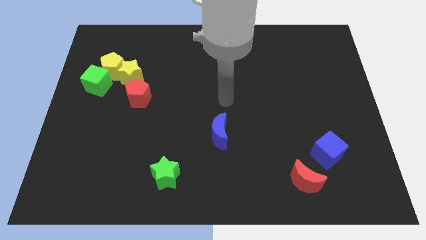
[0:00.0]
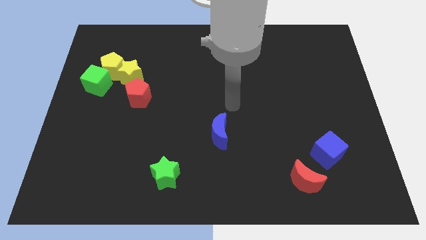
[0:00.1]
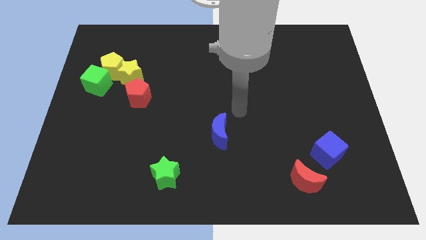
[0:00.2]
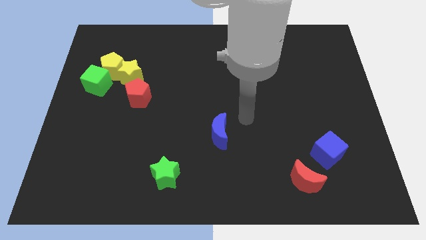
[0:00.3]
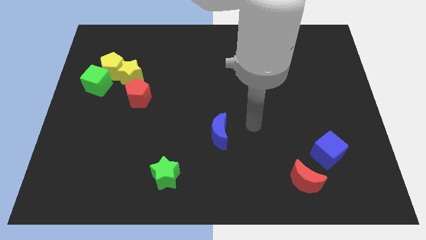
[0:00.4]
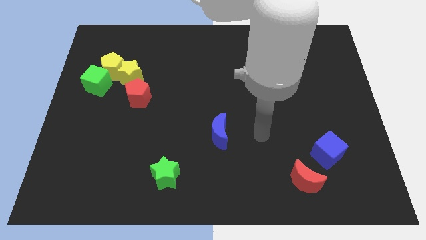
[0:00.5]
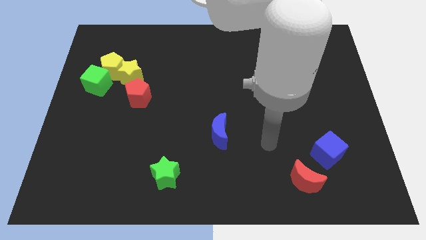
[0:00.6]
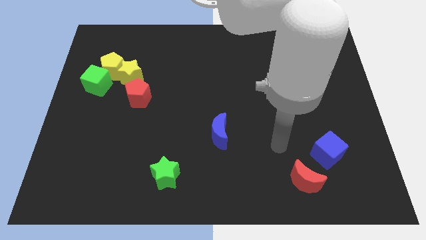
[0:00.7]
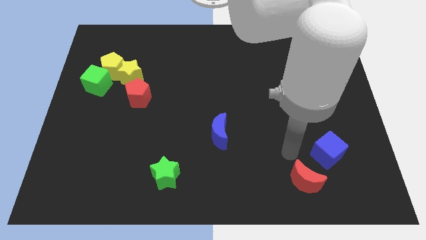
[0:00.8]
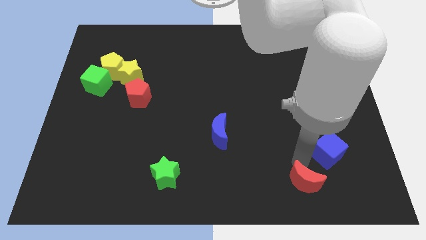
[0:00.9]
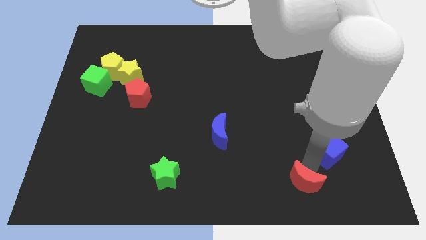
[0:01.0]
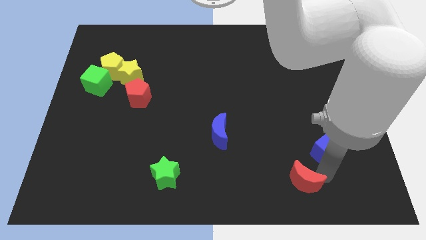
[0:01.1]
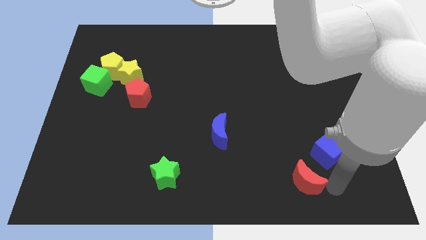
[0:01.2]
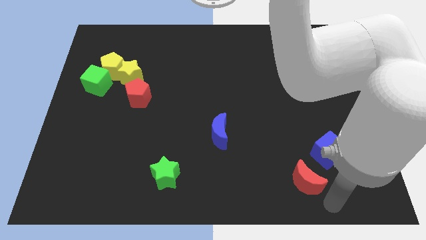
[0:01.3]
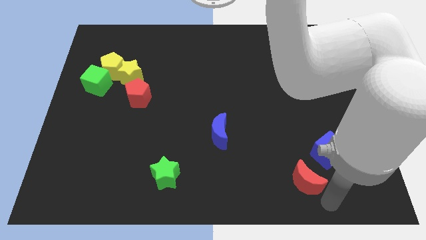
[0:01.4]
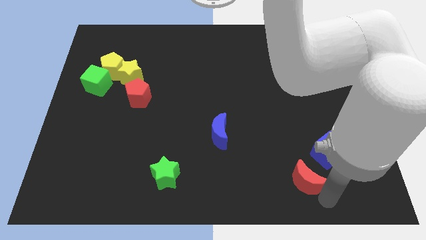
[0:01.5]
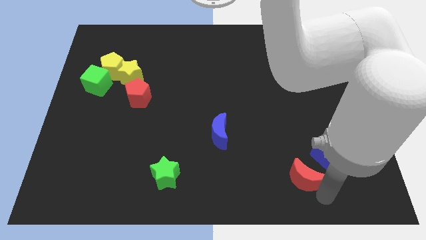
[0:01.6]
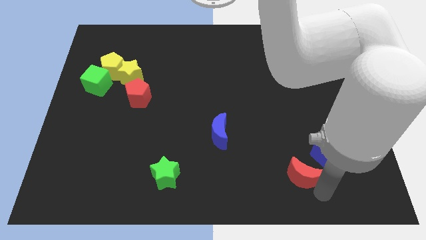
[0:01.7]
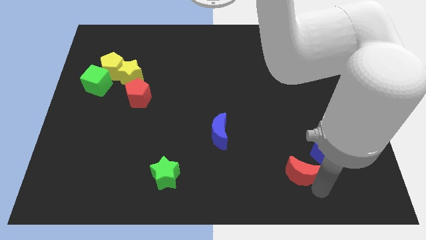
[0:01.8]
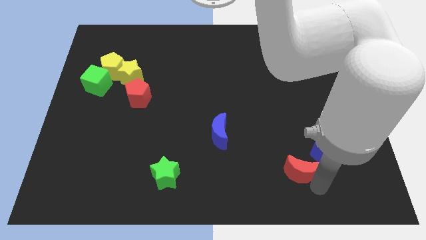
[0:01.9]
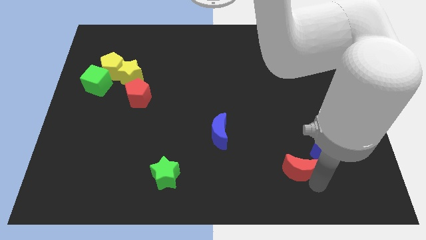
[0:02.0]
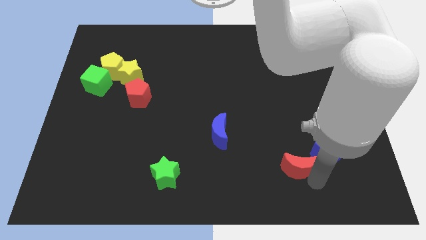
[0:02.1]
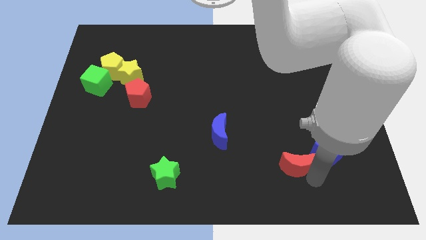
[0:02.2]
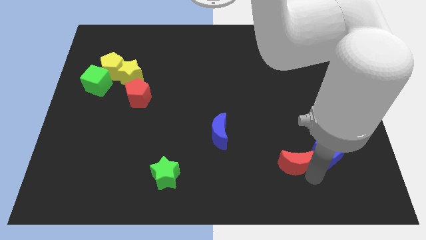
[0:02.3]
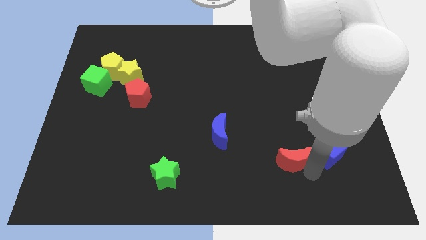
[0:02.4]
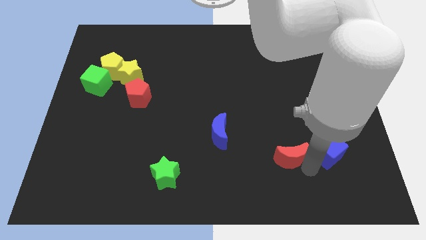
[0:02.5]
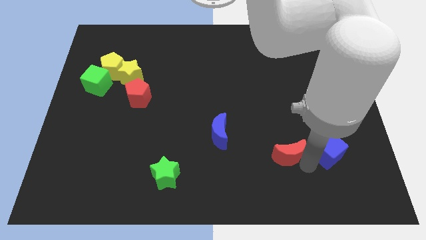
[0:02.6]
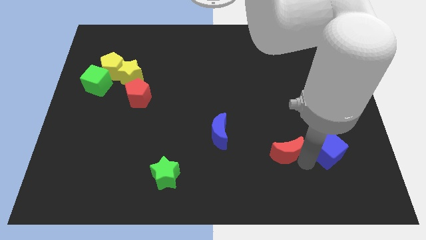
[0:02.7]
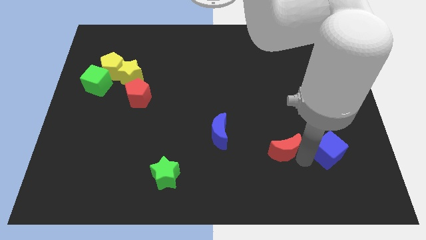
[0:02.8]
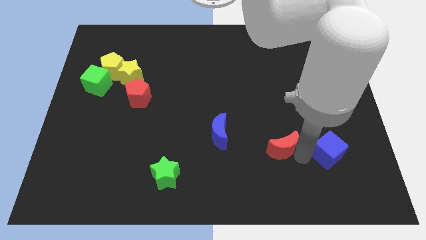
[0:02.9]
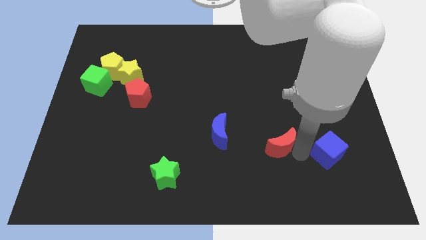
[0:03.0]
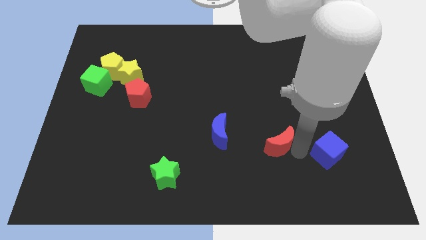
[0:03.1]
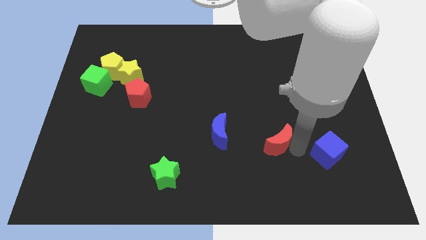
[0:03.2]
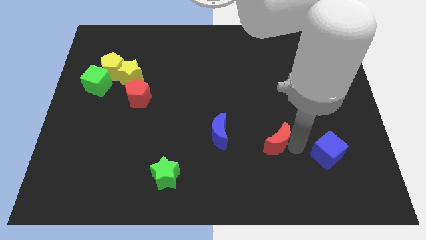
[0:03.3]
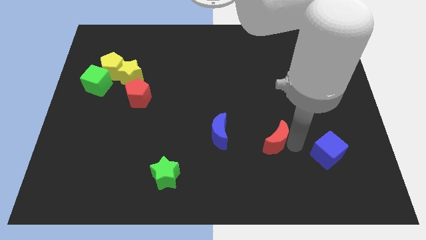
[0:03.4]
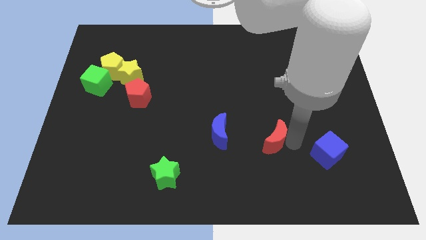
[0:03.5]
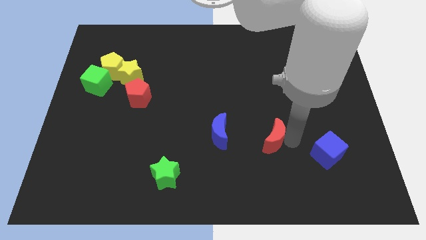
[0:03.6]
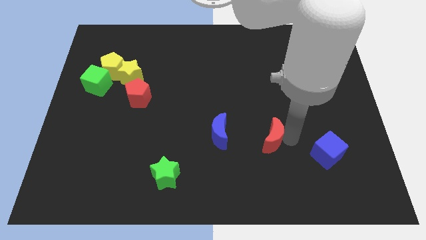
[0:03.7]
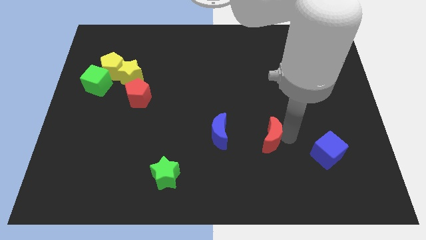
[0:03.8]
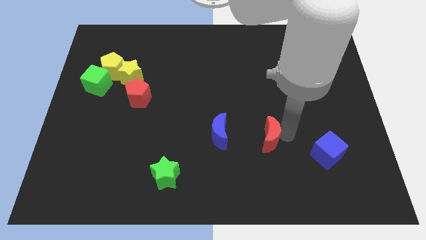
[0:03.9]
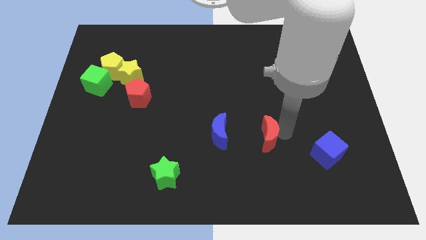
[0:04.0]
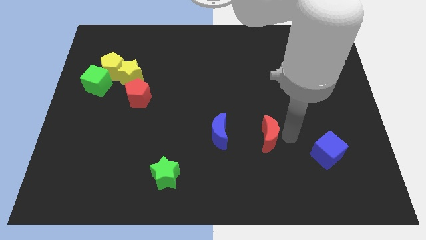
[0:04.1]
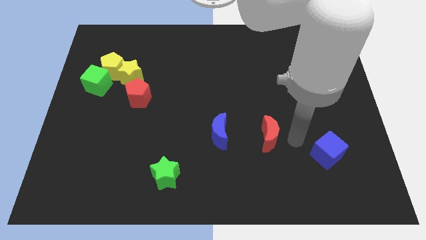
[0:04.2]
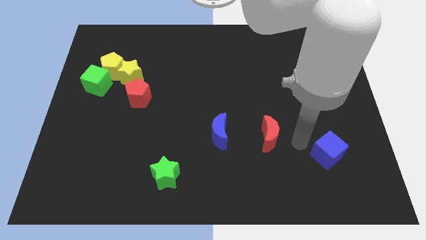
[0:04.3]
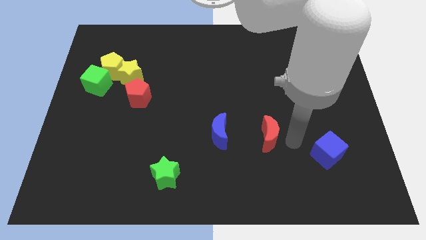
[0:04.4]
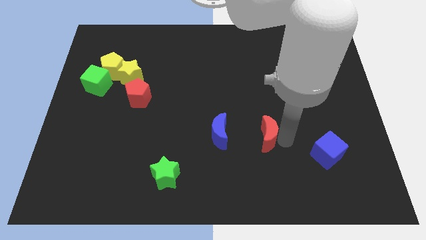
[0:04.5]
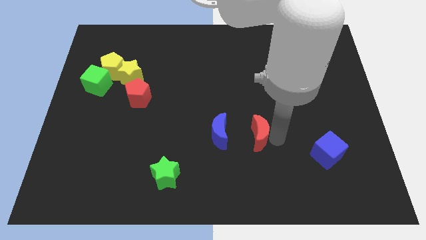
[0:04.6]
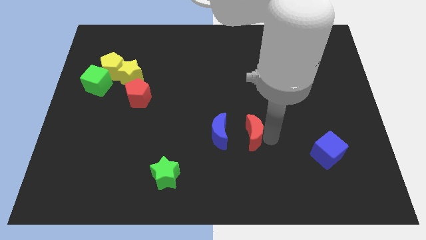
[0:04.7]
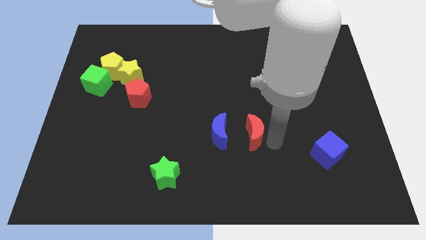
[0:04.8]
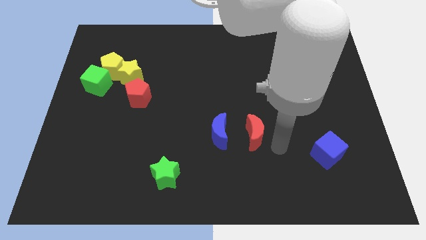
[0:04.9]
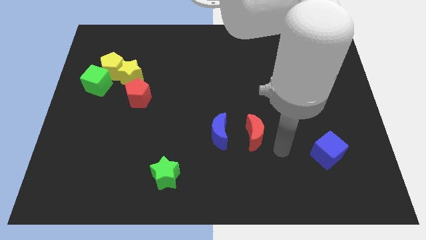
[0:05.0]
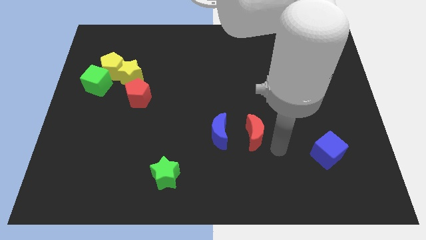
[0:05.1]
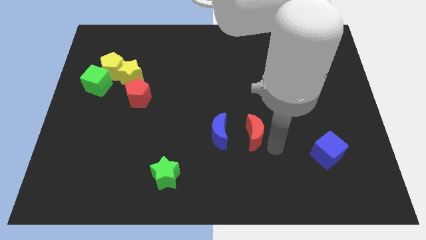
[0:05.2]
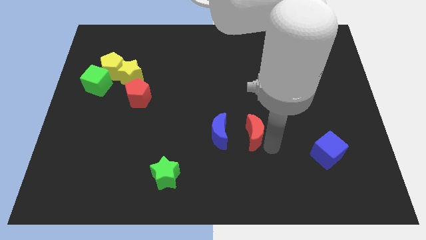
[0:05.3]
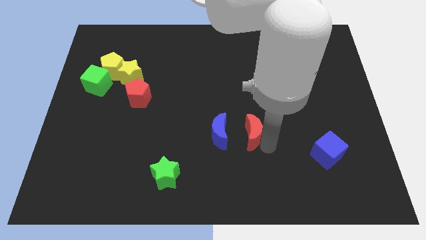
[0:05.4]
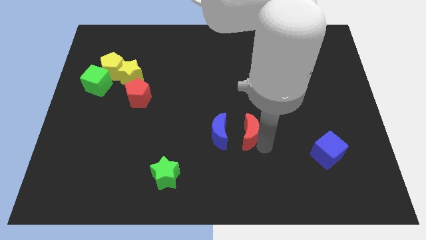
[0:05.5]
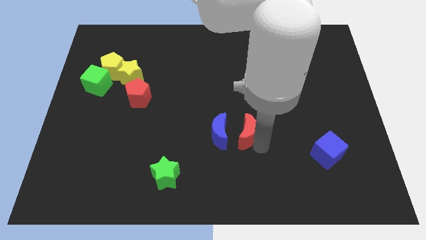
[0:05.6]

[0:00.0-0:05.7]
put the red moon to the center

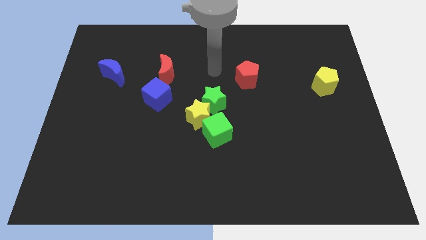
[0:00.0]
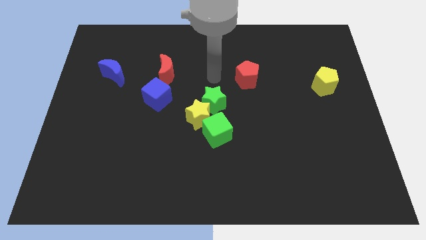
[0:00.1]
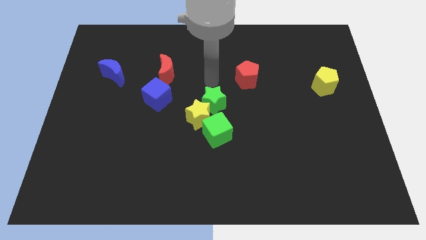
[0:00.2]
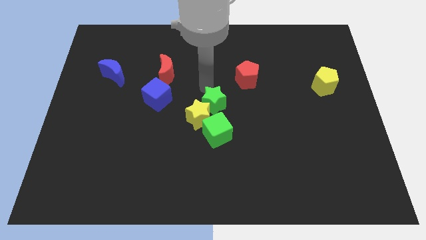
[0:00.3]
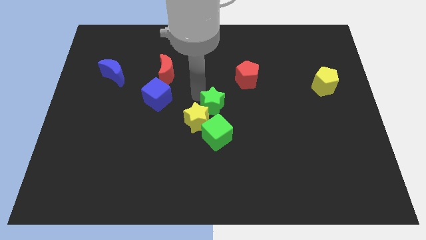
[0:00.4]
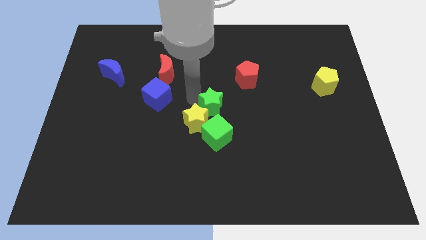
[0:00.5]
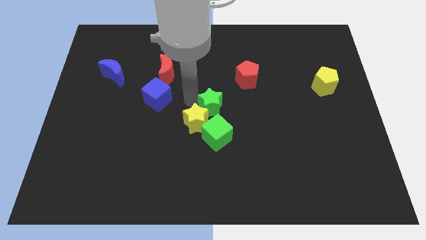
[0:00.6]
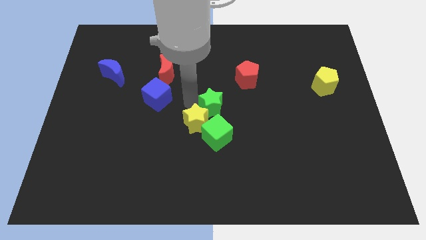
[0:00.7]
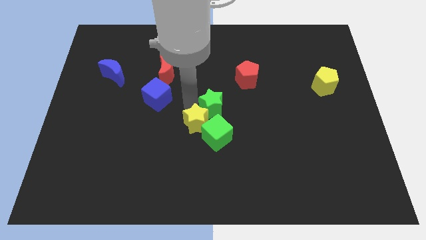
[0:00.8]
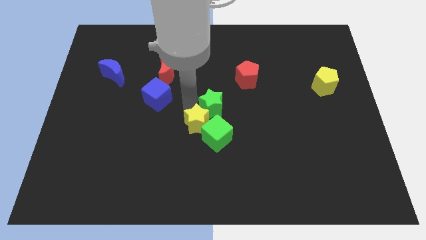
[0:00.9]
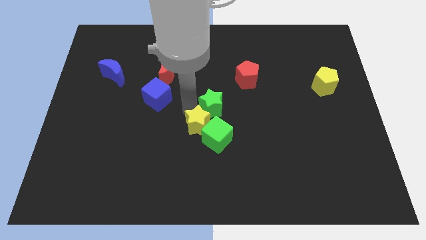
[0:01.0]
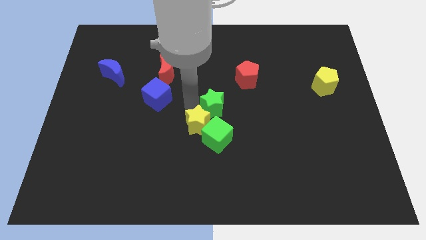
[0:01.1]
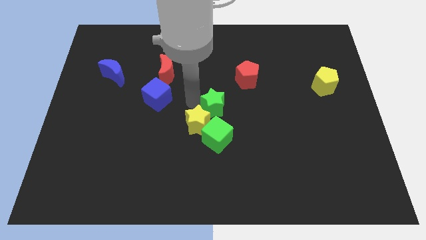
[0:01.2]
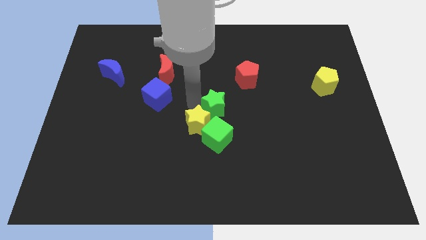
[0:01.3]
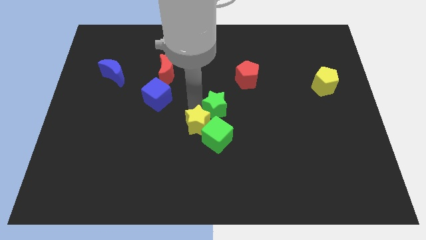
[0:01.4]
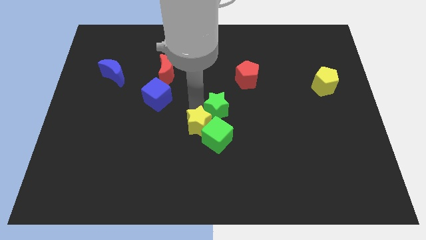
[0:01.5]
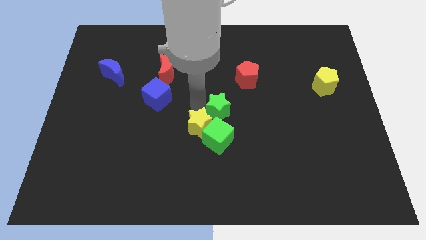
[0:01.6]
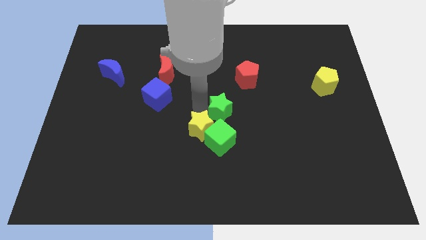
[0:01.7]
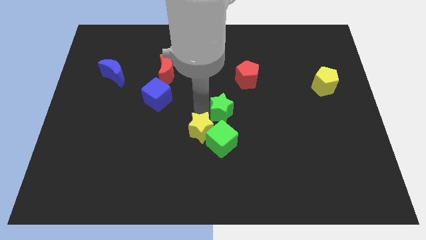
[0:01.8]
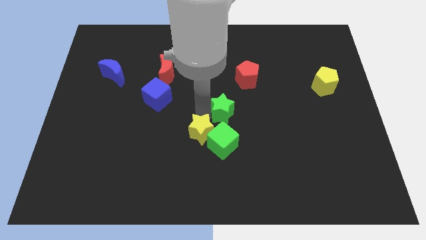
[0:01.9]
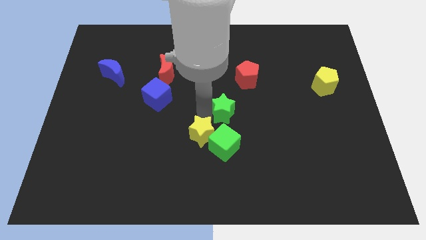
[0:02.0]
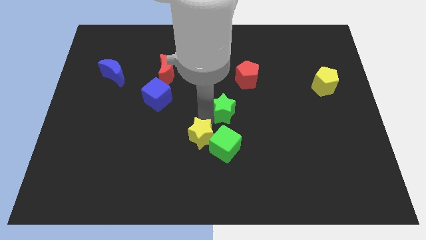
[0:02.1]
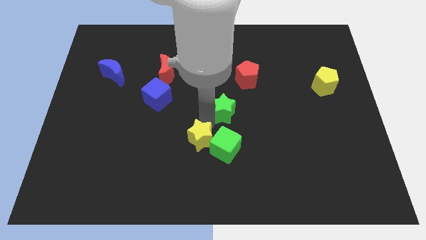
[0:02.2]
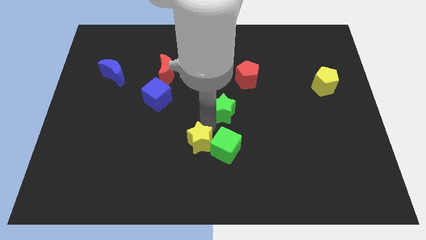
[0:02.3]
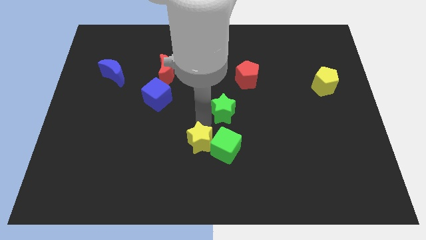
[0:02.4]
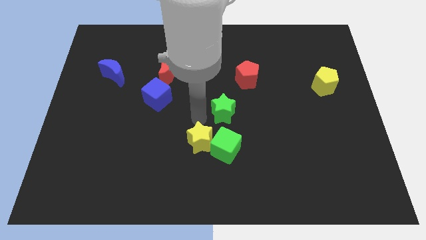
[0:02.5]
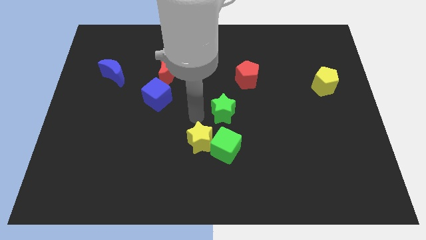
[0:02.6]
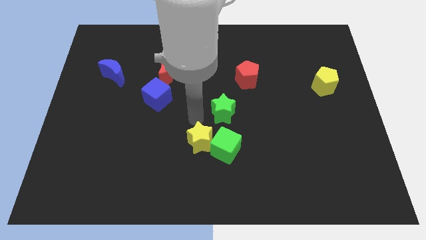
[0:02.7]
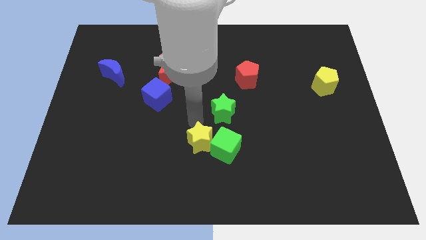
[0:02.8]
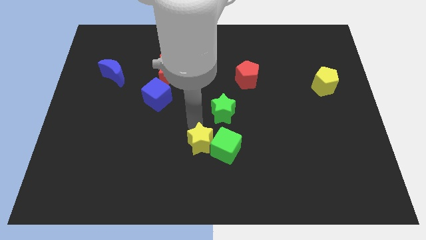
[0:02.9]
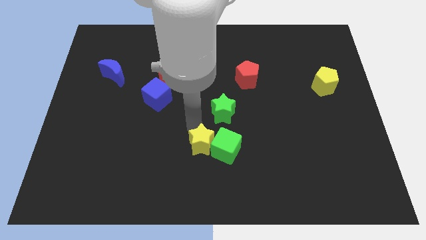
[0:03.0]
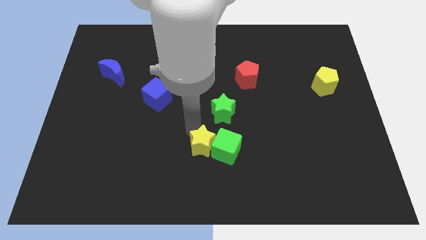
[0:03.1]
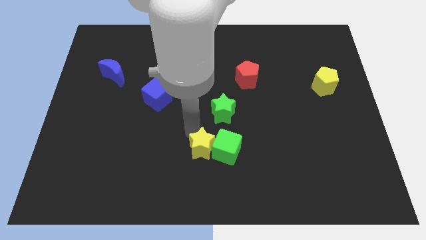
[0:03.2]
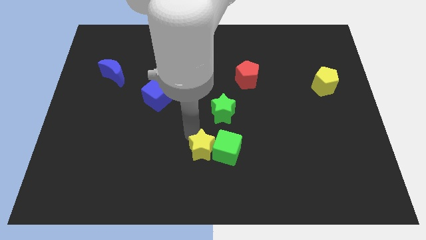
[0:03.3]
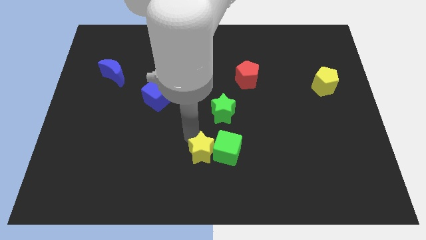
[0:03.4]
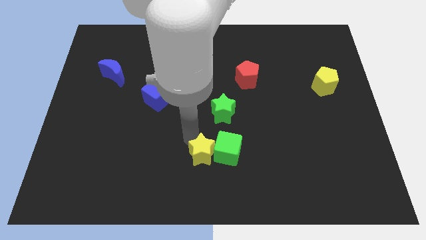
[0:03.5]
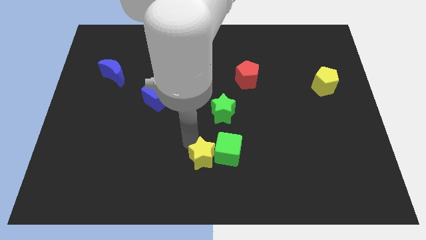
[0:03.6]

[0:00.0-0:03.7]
push the yellow star to the bottom
